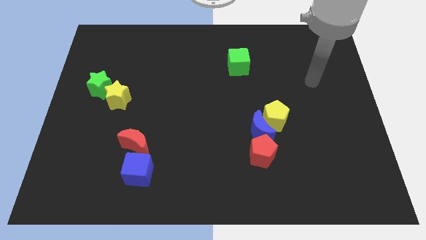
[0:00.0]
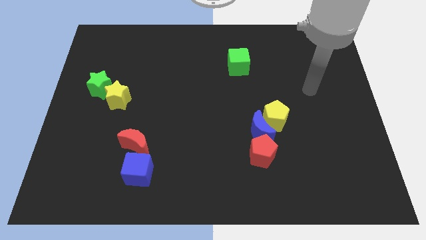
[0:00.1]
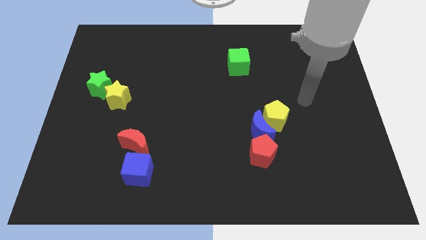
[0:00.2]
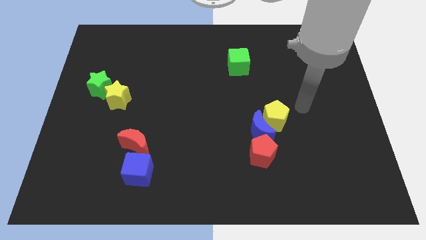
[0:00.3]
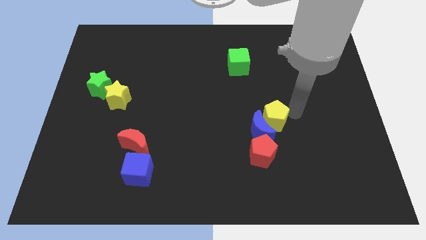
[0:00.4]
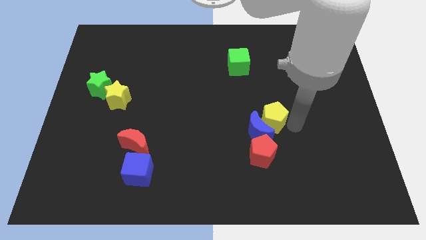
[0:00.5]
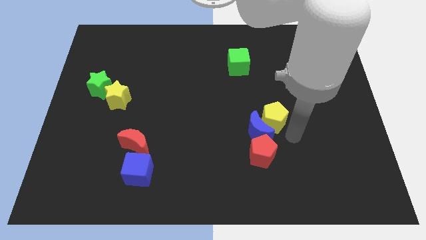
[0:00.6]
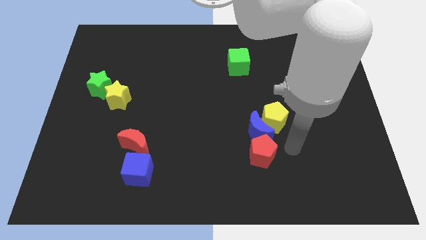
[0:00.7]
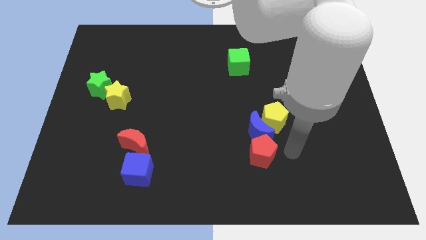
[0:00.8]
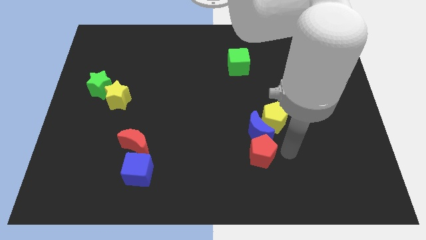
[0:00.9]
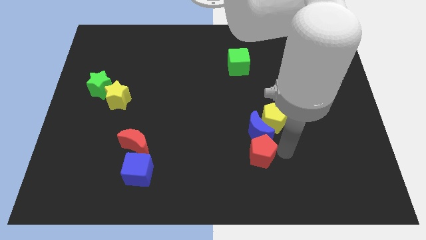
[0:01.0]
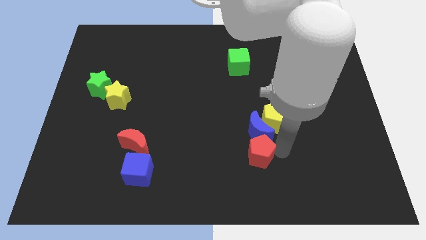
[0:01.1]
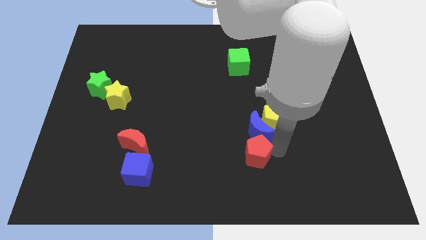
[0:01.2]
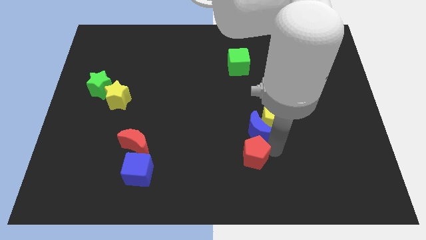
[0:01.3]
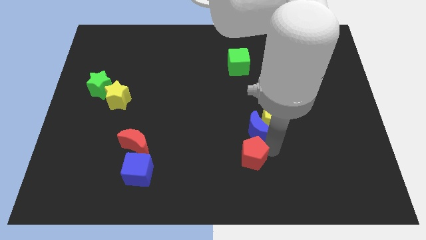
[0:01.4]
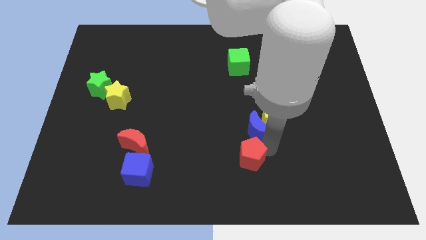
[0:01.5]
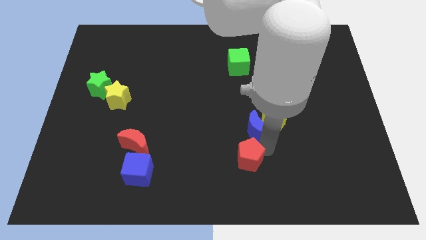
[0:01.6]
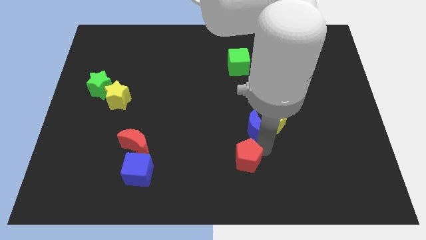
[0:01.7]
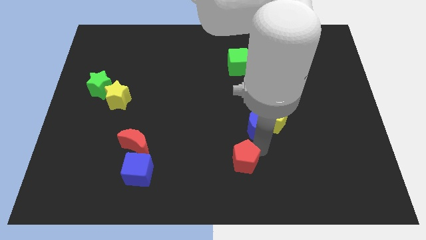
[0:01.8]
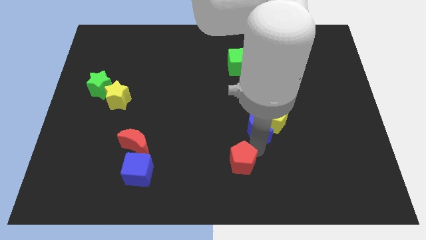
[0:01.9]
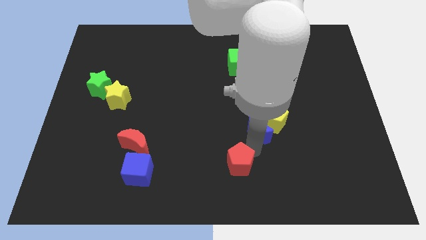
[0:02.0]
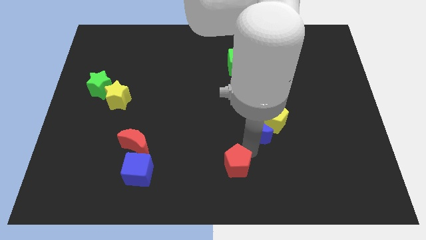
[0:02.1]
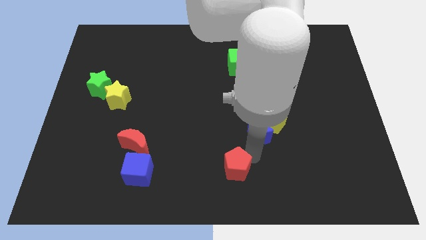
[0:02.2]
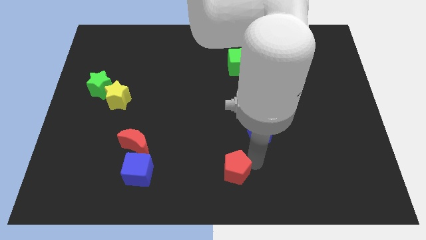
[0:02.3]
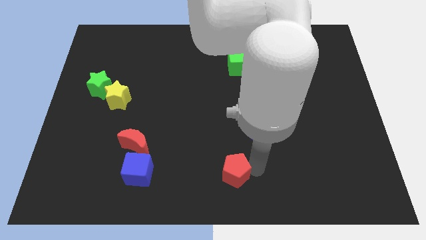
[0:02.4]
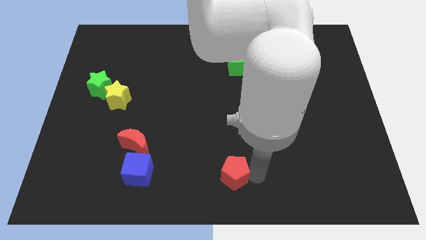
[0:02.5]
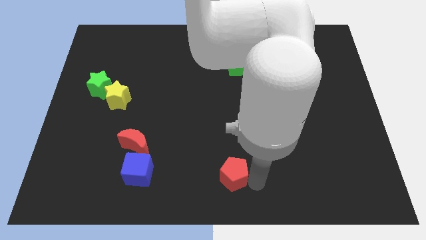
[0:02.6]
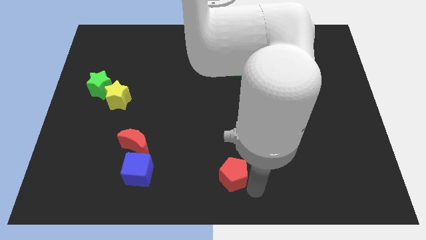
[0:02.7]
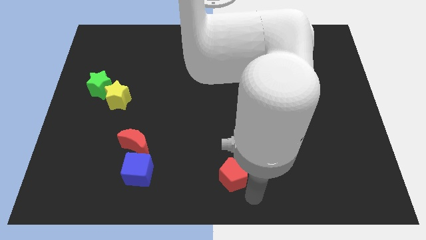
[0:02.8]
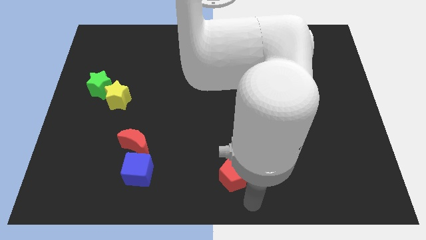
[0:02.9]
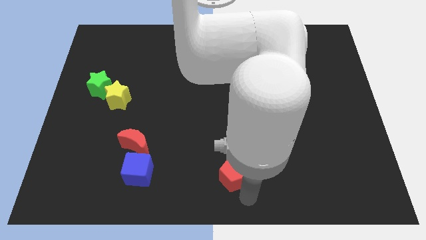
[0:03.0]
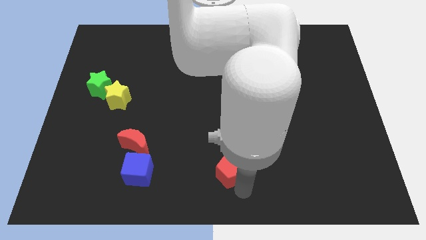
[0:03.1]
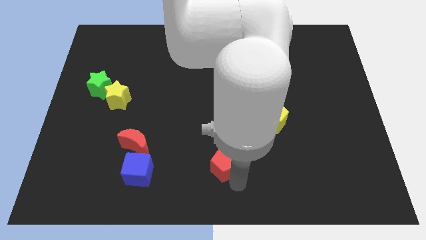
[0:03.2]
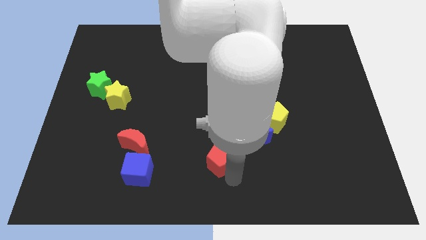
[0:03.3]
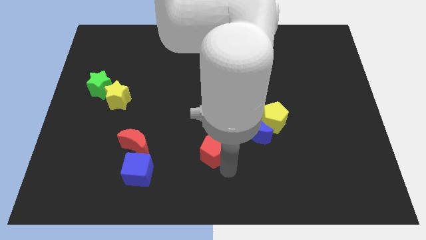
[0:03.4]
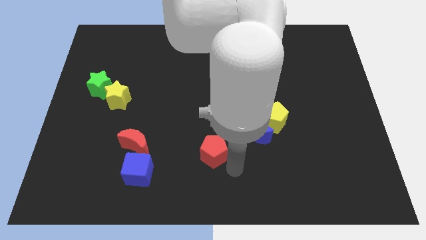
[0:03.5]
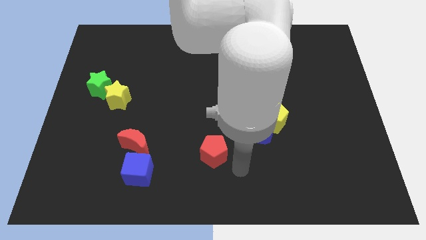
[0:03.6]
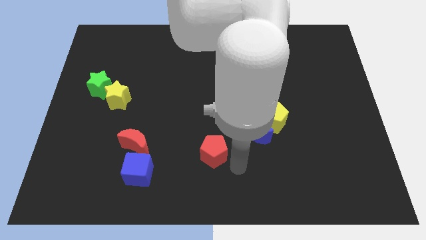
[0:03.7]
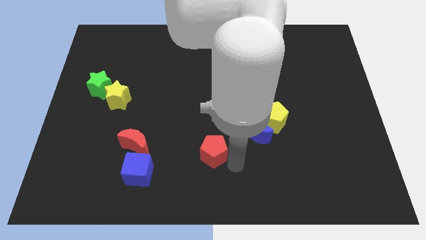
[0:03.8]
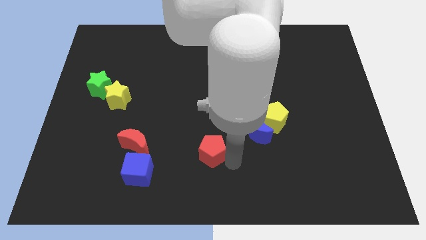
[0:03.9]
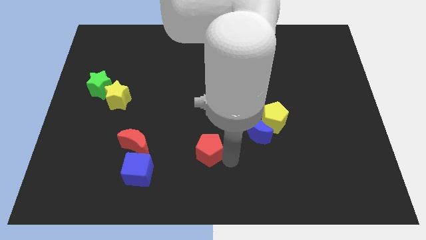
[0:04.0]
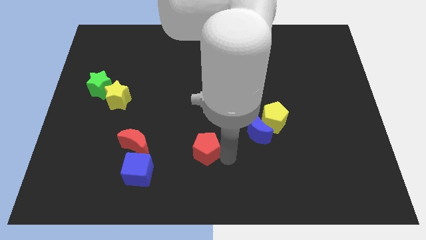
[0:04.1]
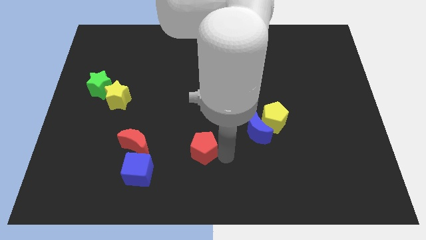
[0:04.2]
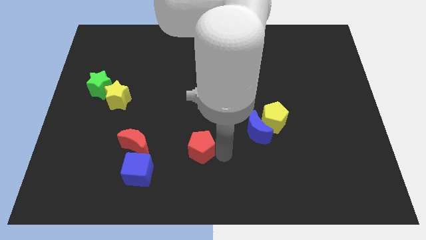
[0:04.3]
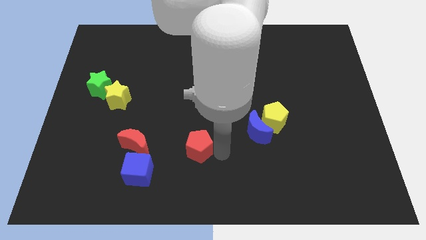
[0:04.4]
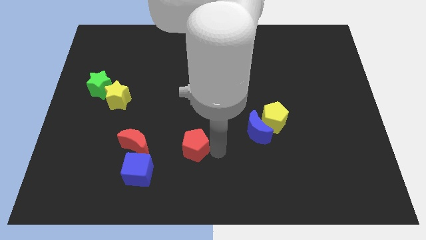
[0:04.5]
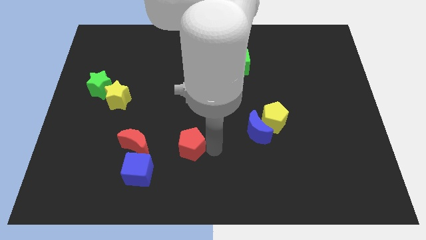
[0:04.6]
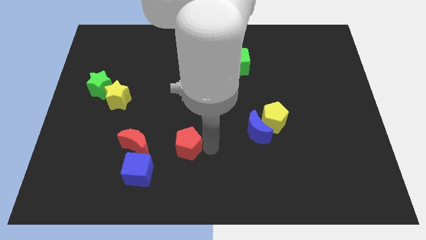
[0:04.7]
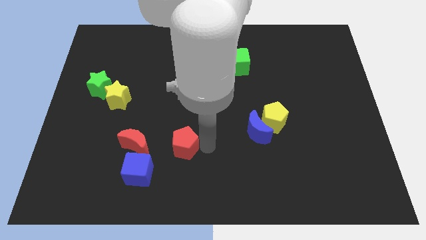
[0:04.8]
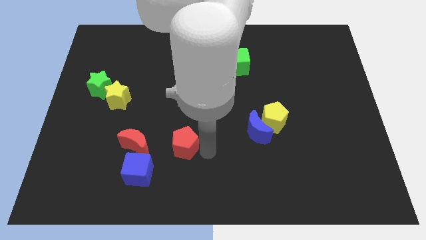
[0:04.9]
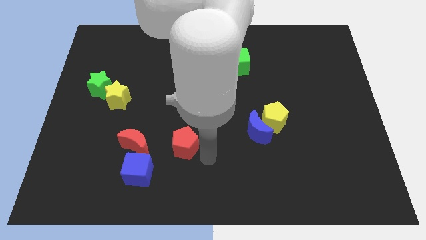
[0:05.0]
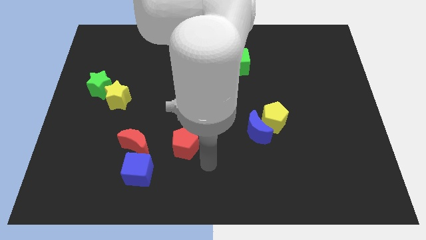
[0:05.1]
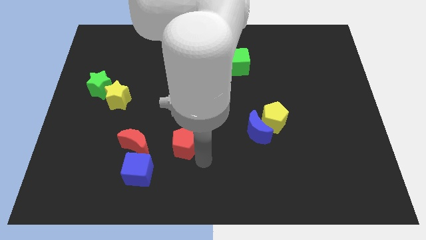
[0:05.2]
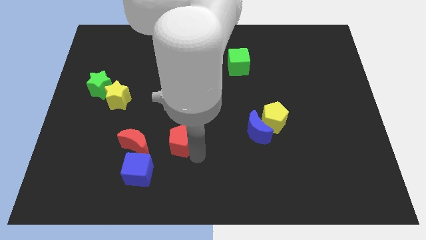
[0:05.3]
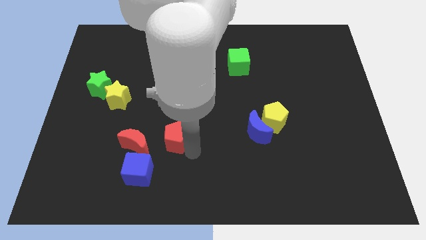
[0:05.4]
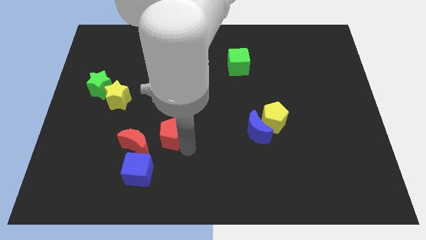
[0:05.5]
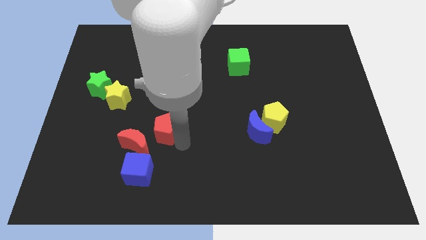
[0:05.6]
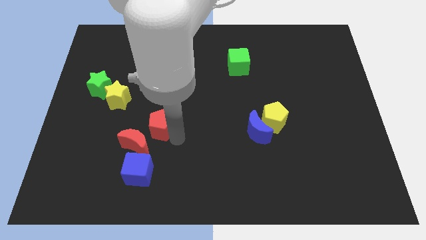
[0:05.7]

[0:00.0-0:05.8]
push the red pentagon left

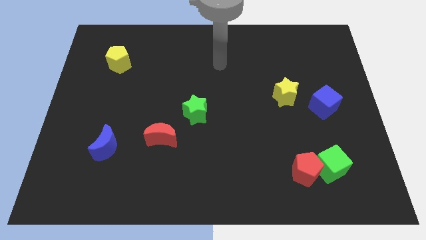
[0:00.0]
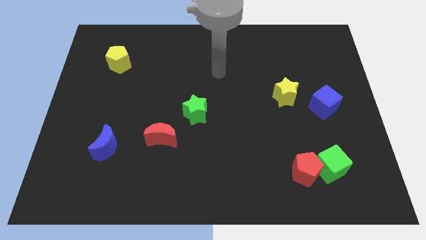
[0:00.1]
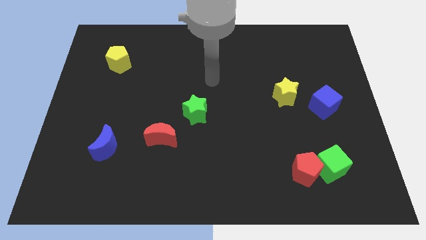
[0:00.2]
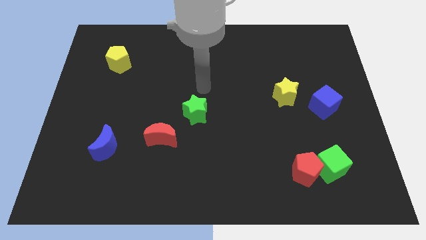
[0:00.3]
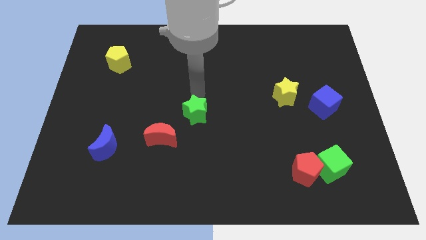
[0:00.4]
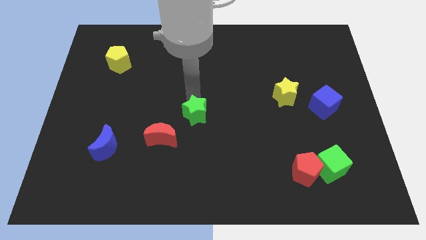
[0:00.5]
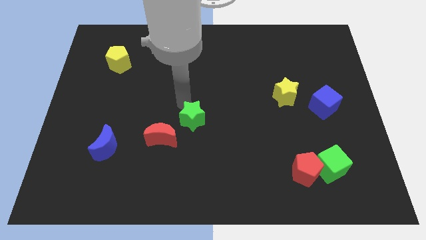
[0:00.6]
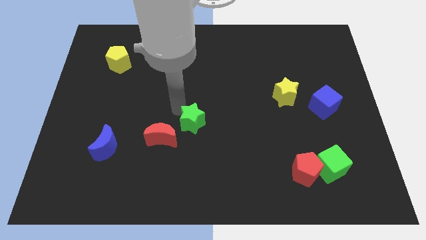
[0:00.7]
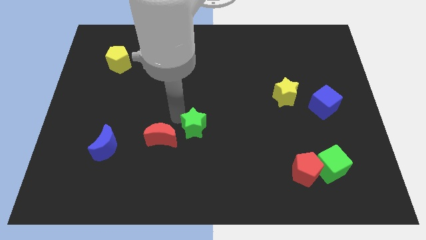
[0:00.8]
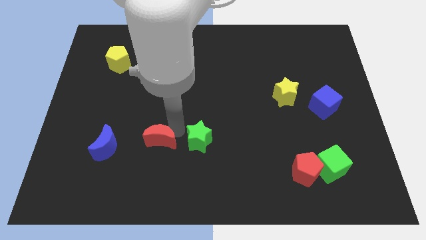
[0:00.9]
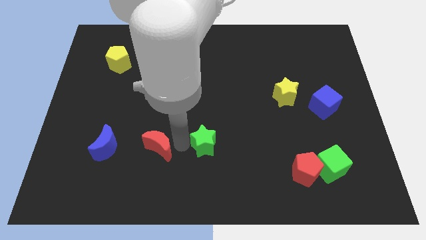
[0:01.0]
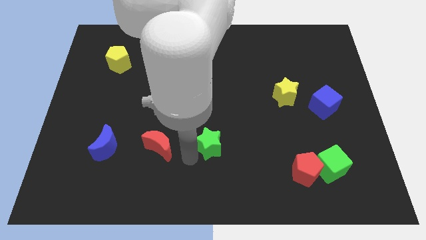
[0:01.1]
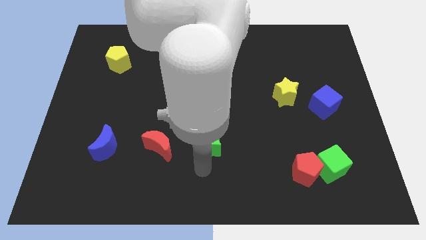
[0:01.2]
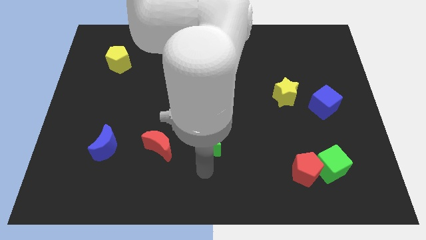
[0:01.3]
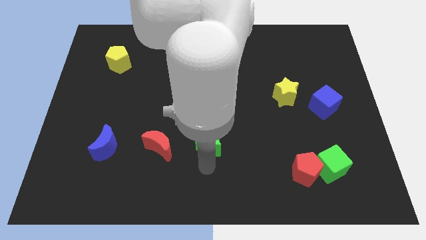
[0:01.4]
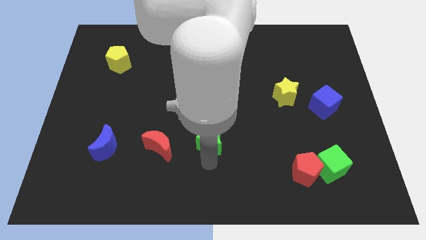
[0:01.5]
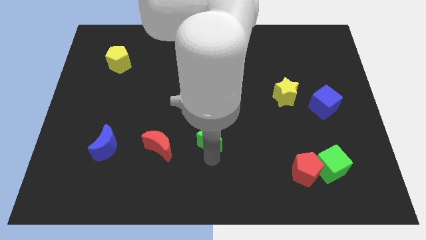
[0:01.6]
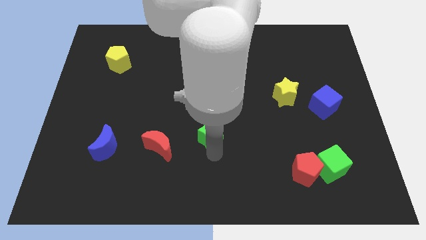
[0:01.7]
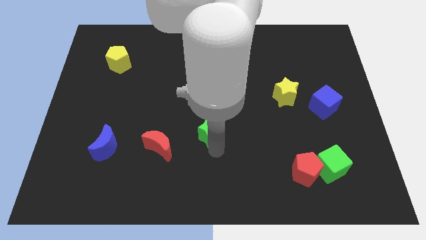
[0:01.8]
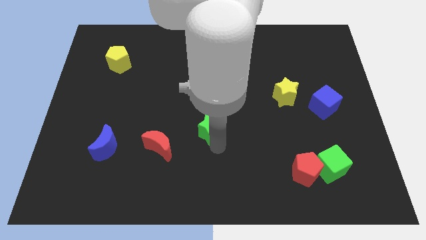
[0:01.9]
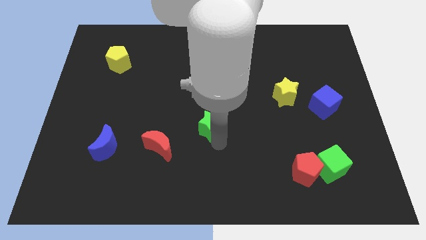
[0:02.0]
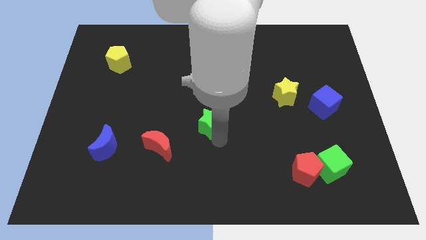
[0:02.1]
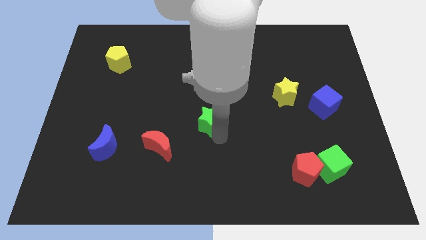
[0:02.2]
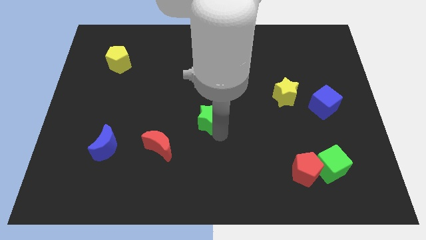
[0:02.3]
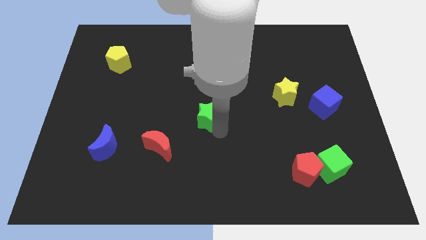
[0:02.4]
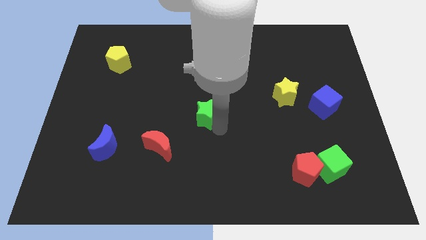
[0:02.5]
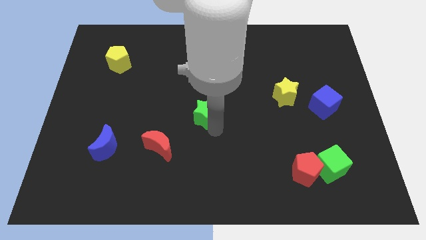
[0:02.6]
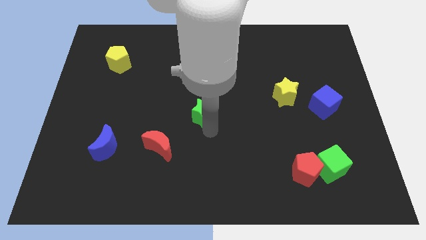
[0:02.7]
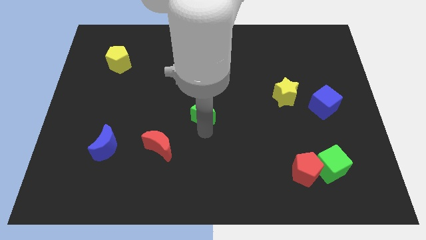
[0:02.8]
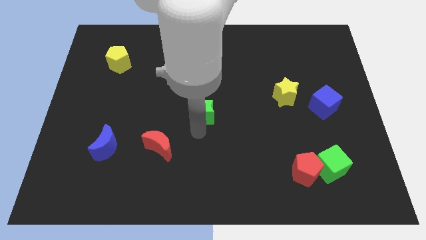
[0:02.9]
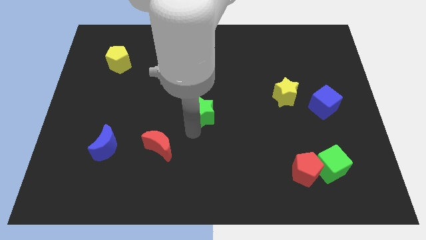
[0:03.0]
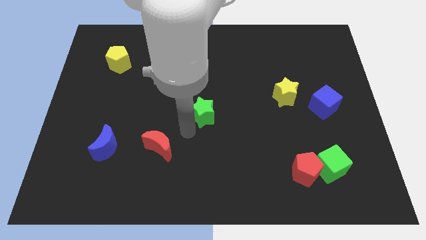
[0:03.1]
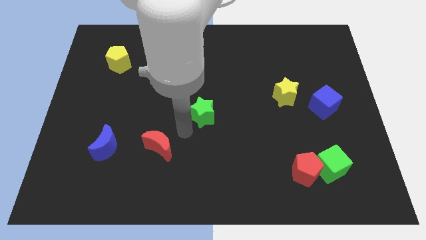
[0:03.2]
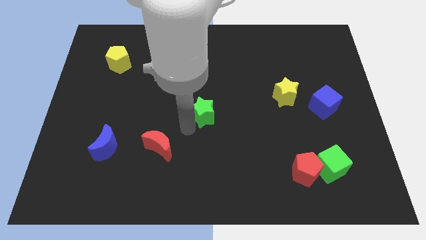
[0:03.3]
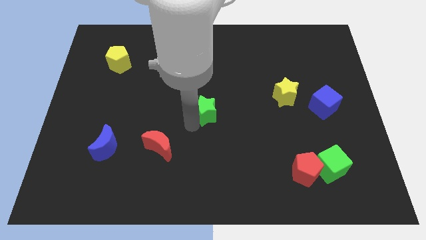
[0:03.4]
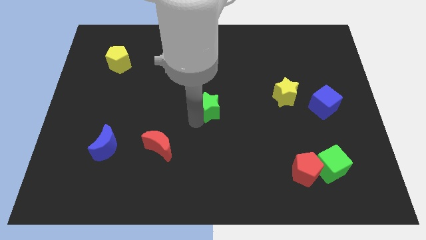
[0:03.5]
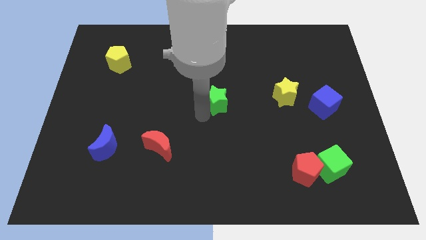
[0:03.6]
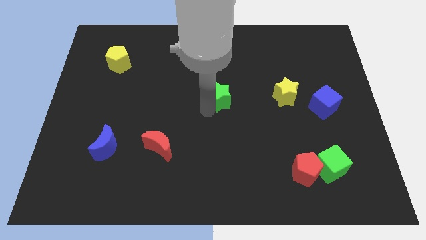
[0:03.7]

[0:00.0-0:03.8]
move the green star slightly diagonally up and right
